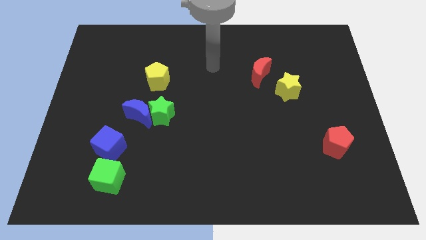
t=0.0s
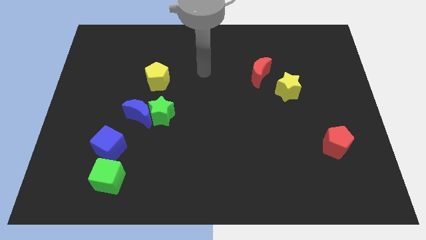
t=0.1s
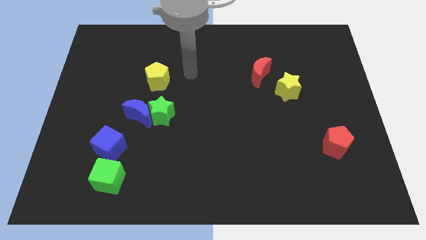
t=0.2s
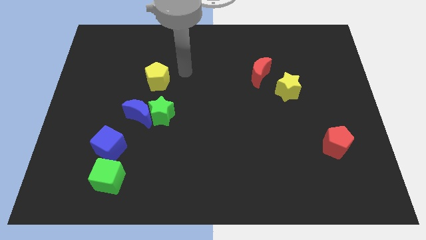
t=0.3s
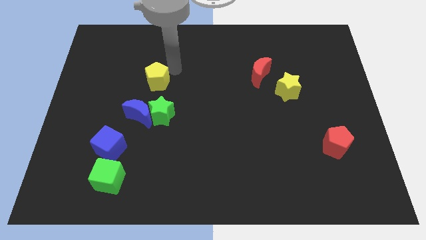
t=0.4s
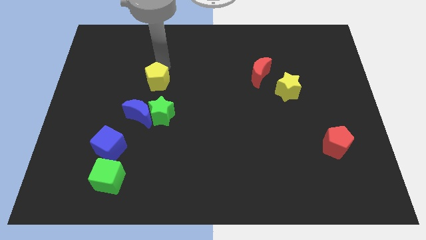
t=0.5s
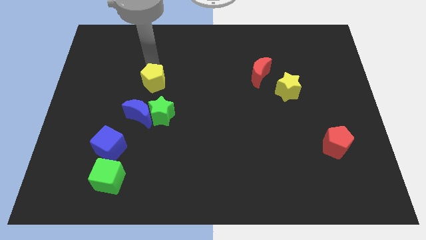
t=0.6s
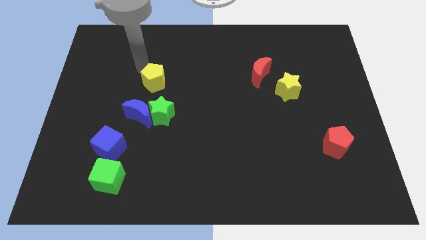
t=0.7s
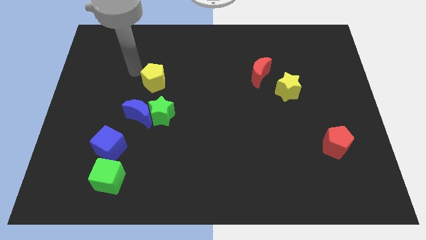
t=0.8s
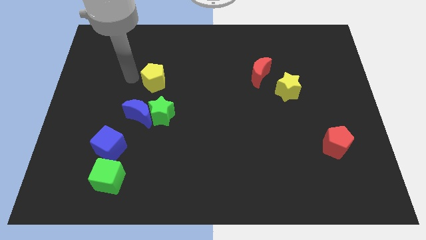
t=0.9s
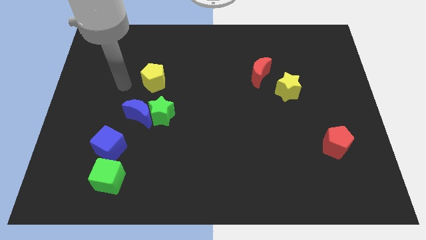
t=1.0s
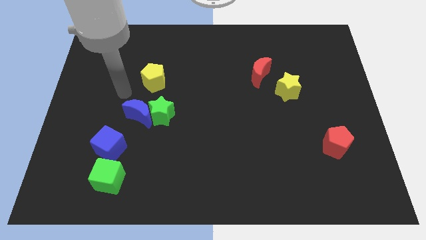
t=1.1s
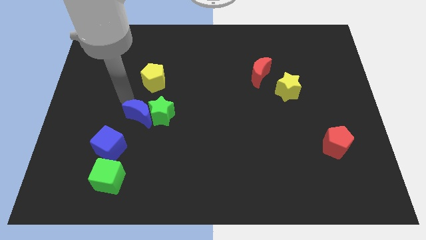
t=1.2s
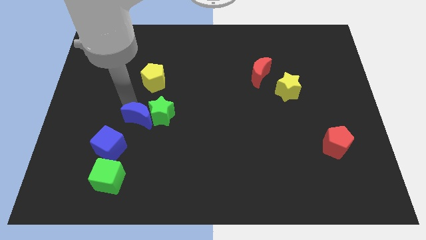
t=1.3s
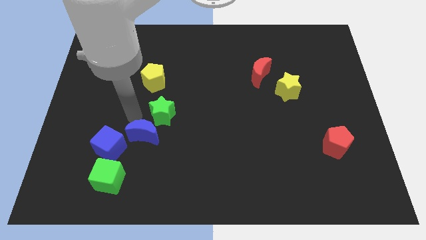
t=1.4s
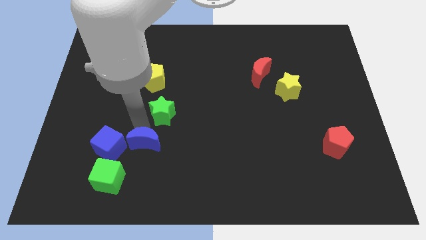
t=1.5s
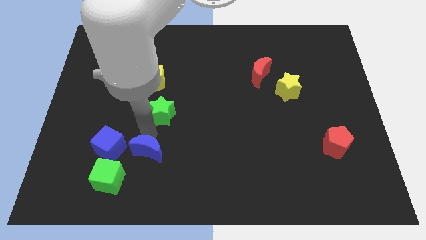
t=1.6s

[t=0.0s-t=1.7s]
pull the green star apart from the blue moon

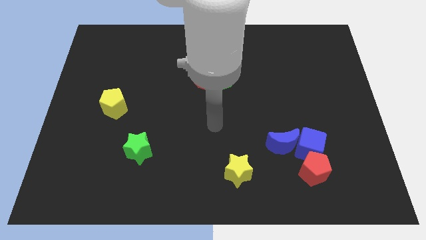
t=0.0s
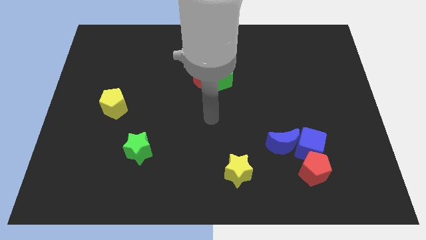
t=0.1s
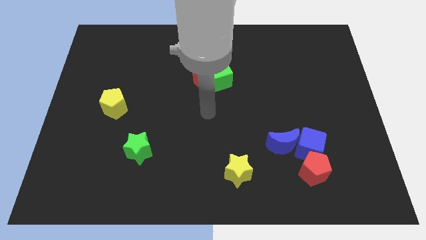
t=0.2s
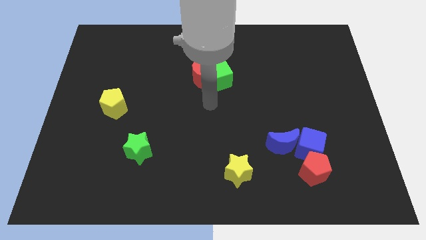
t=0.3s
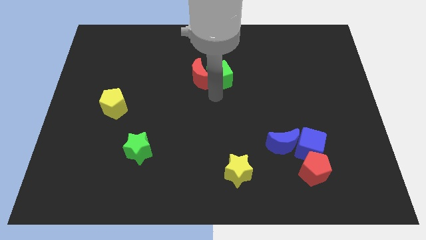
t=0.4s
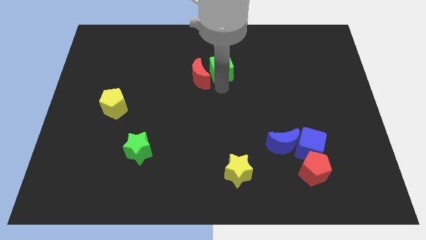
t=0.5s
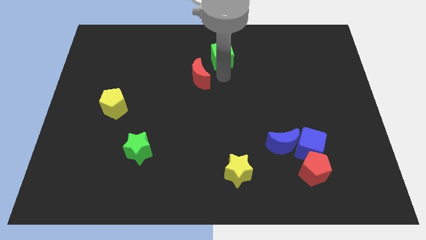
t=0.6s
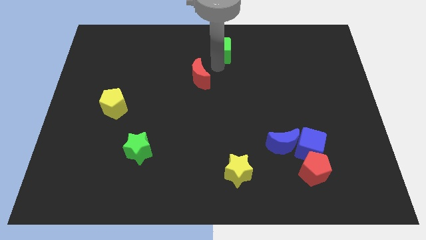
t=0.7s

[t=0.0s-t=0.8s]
separate the red moon from the green cube

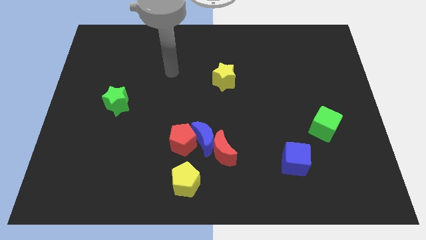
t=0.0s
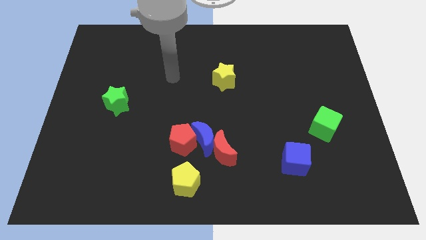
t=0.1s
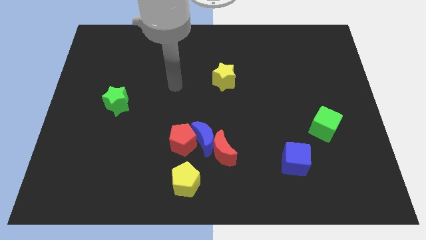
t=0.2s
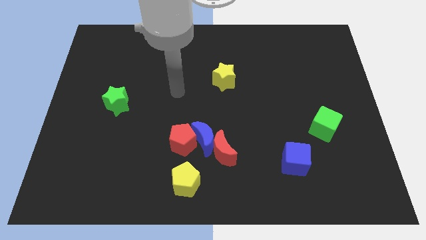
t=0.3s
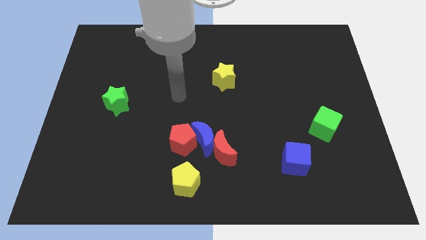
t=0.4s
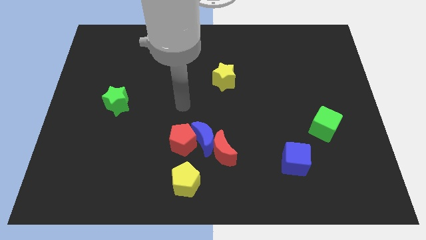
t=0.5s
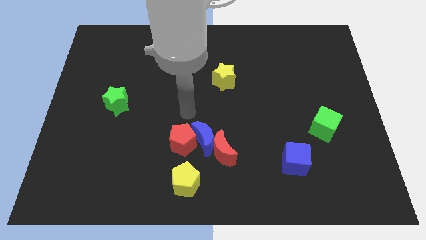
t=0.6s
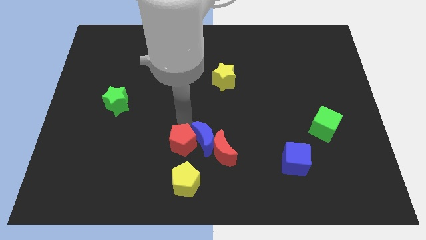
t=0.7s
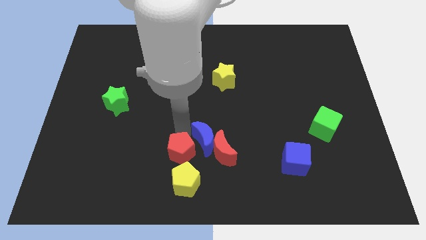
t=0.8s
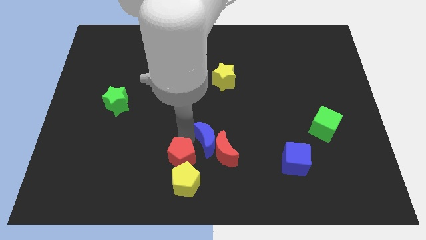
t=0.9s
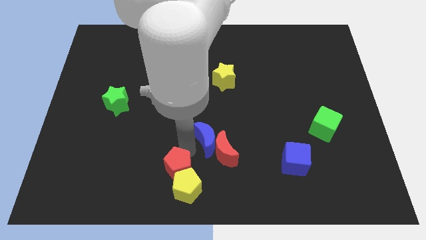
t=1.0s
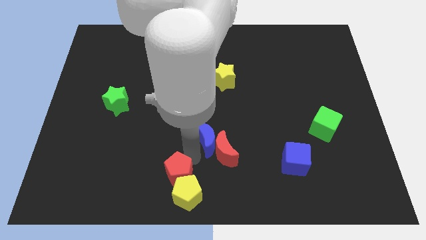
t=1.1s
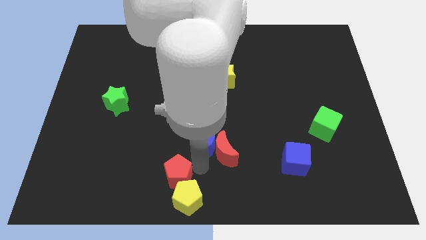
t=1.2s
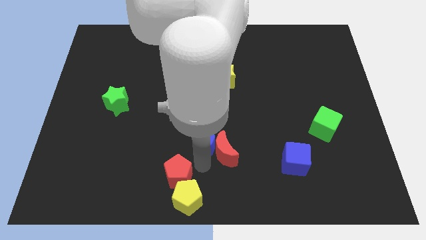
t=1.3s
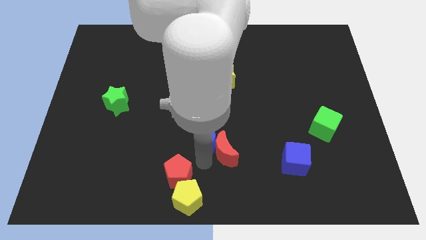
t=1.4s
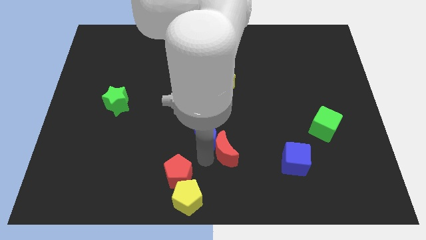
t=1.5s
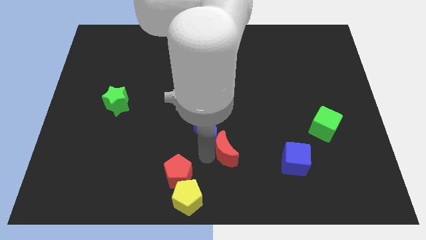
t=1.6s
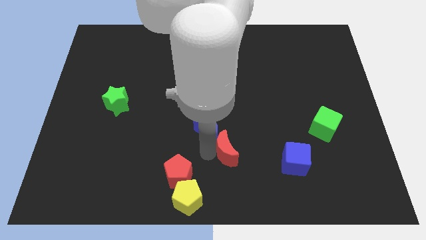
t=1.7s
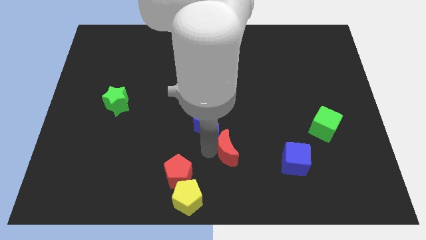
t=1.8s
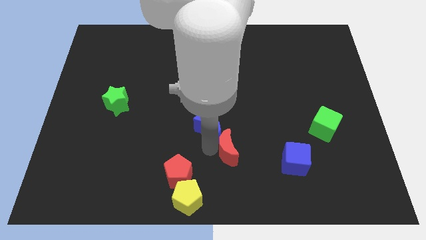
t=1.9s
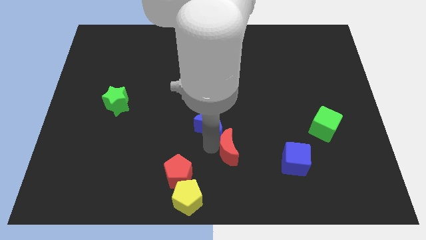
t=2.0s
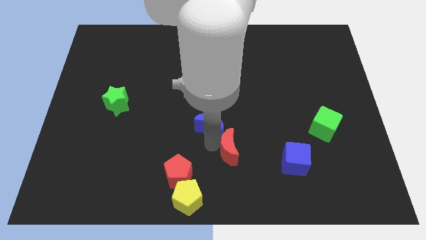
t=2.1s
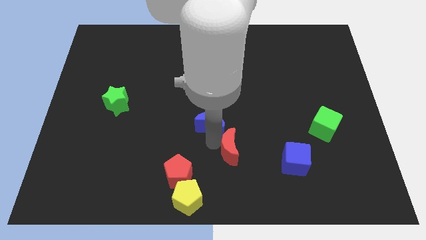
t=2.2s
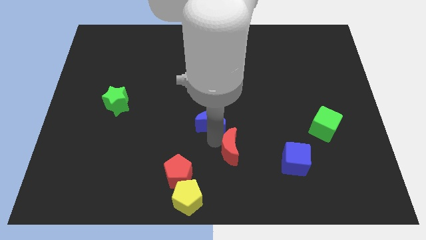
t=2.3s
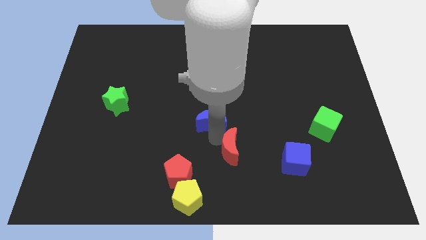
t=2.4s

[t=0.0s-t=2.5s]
pull the blue moon apart from the red moon and red pentagon

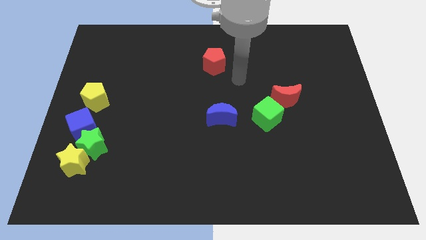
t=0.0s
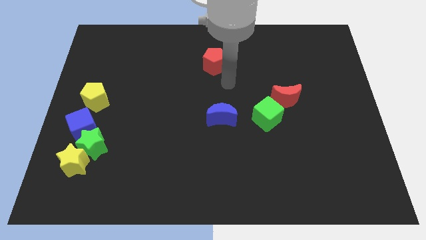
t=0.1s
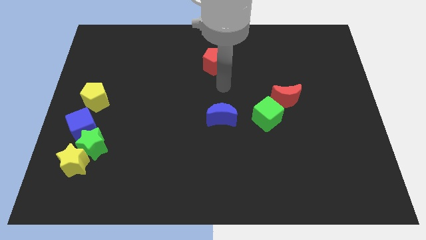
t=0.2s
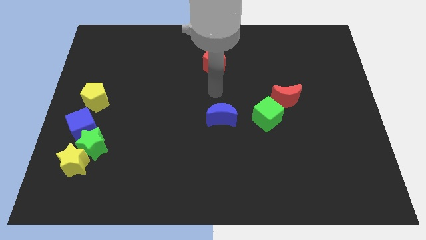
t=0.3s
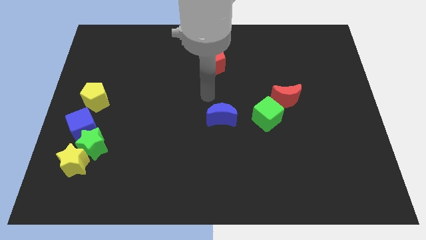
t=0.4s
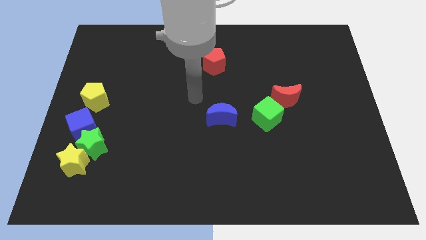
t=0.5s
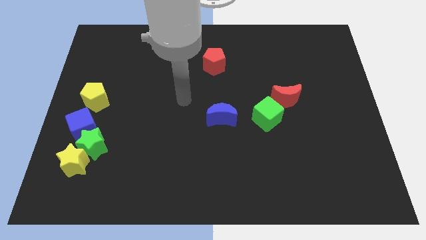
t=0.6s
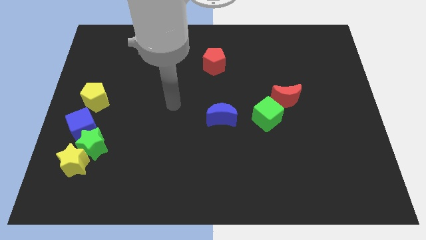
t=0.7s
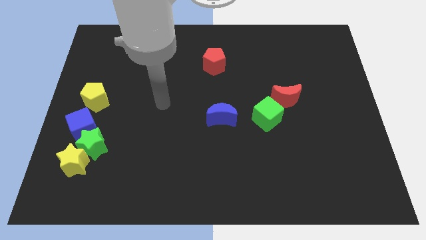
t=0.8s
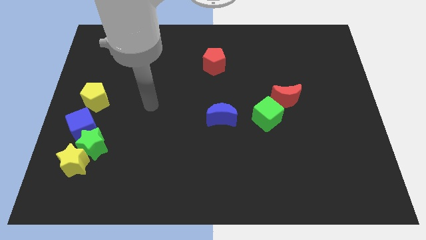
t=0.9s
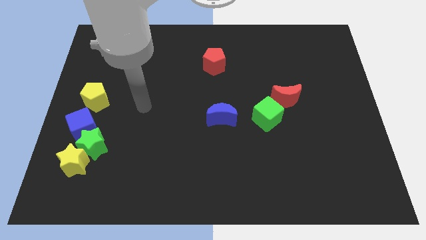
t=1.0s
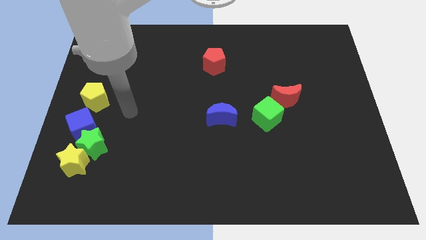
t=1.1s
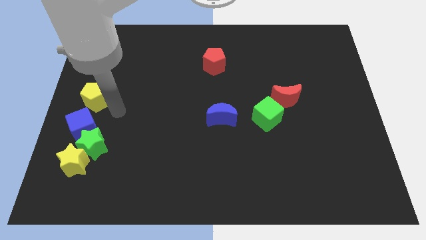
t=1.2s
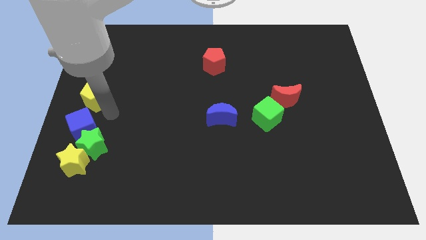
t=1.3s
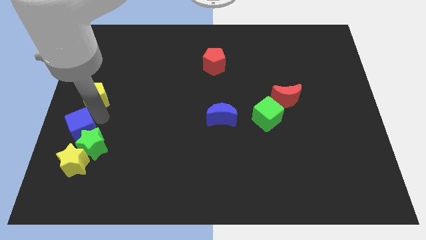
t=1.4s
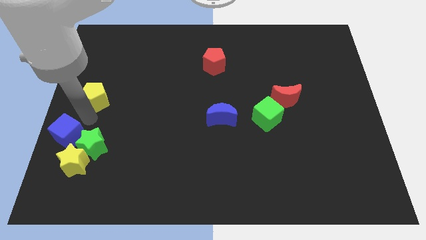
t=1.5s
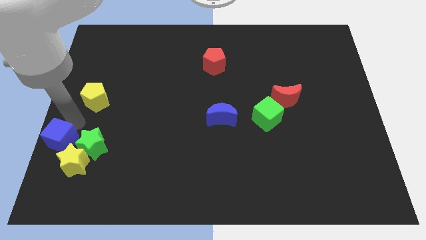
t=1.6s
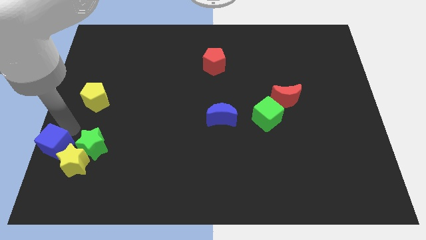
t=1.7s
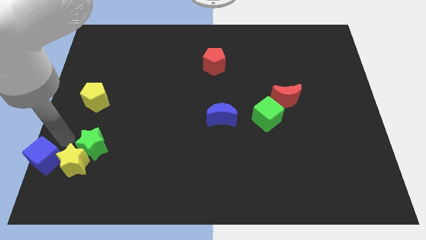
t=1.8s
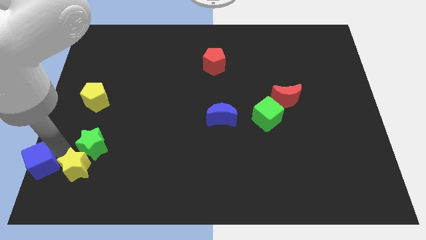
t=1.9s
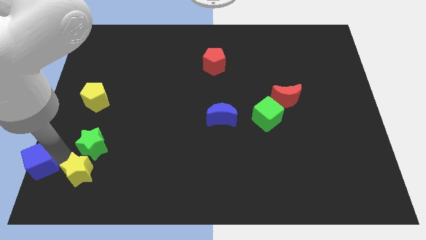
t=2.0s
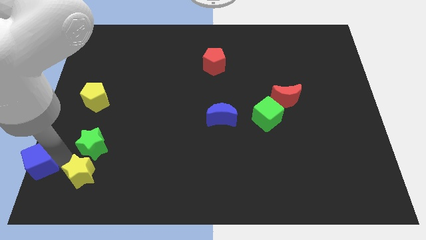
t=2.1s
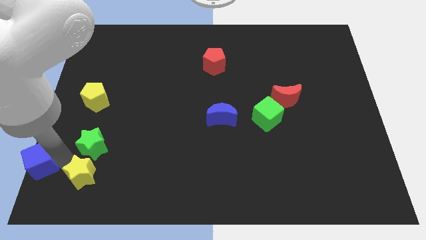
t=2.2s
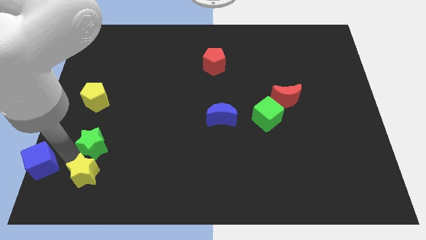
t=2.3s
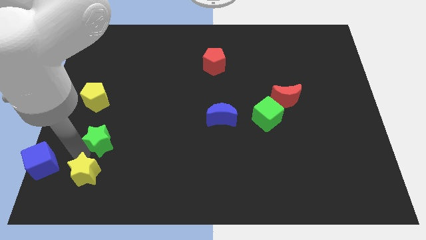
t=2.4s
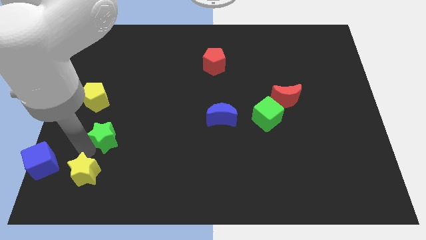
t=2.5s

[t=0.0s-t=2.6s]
move the green star away from the yellow star and blue cube

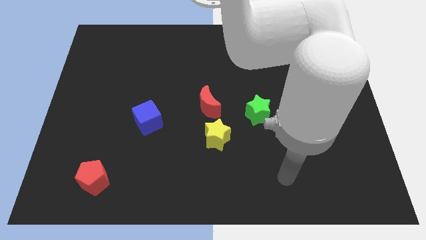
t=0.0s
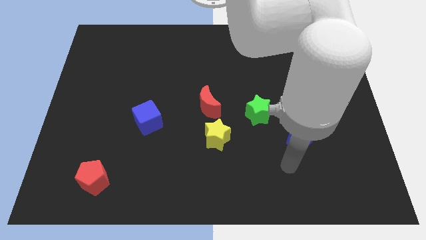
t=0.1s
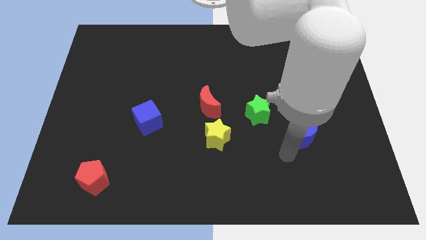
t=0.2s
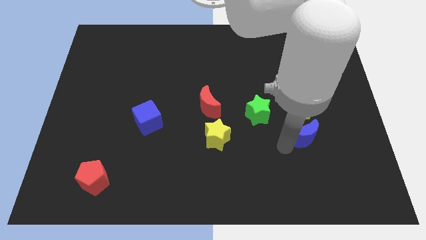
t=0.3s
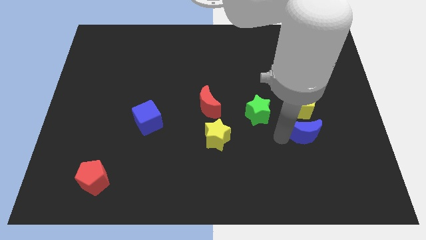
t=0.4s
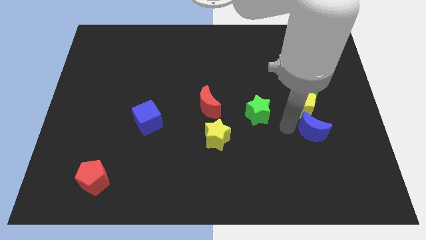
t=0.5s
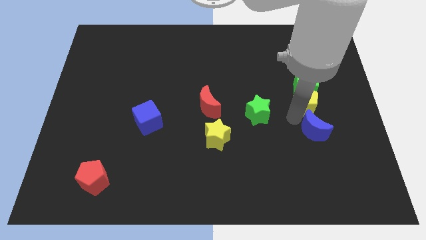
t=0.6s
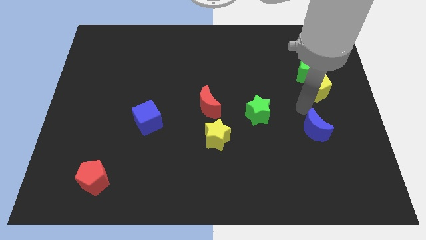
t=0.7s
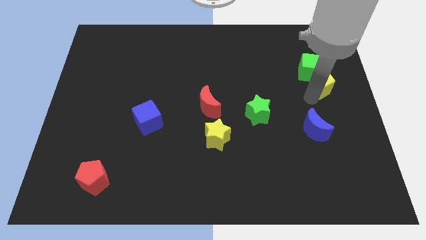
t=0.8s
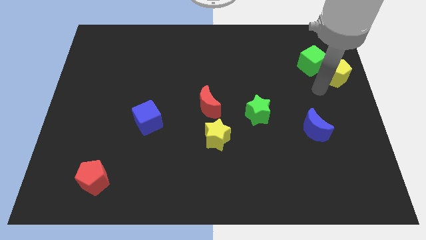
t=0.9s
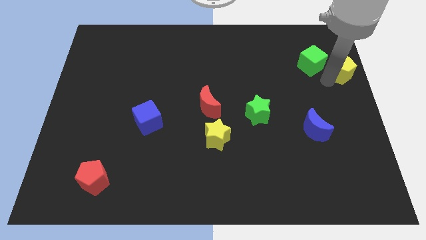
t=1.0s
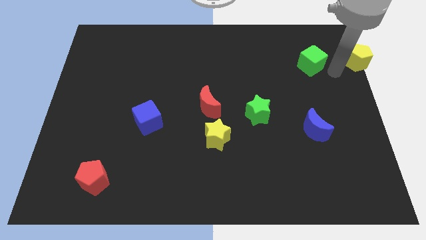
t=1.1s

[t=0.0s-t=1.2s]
pull the green cube apart from the yellow pentagon

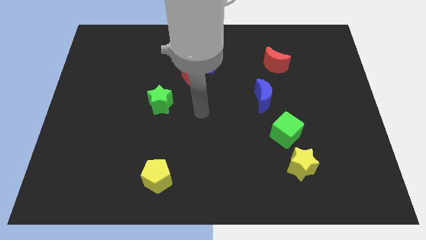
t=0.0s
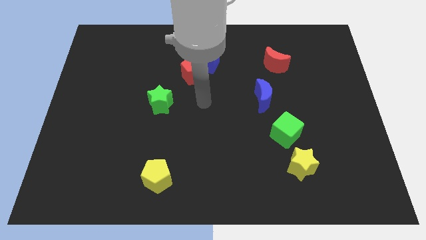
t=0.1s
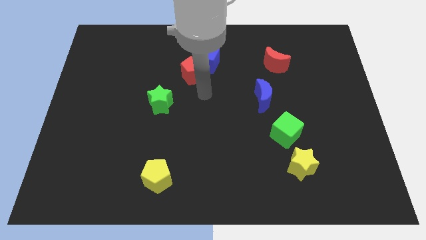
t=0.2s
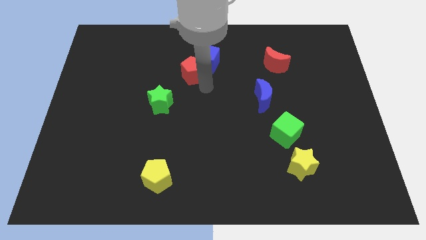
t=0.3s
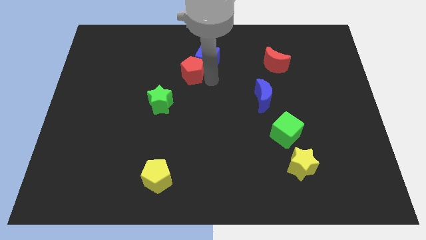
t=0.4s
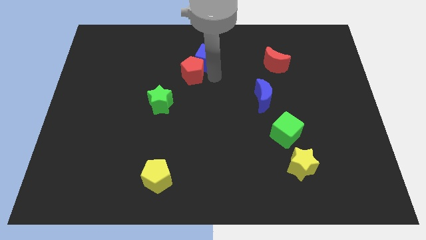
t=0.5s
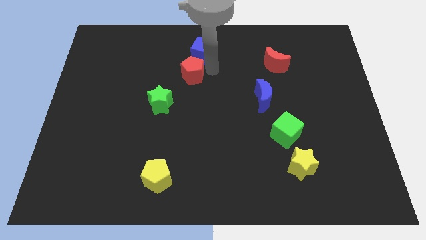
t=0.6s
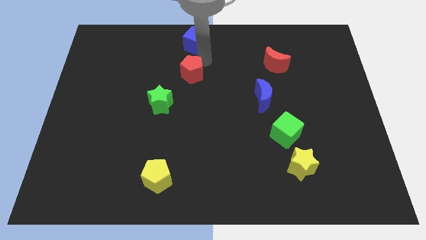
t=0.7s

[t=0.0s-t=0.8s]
move the red pentagon away from the blue cube
